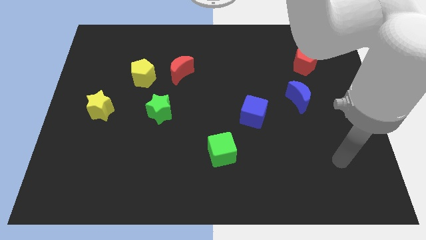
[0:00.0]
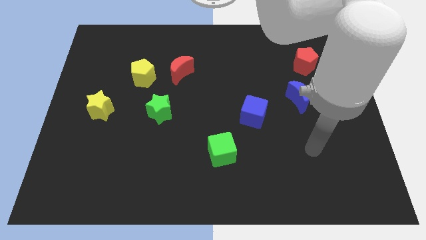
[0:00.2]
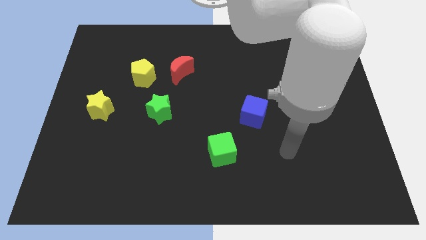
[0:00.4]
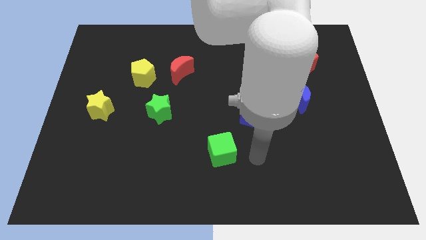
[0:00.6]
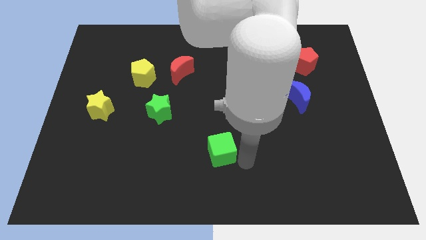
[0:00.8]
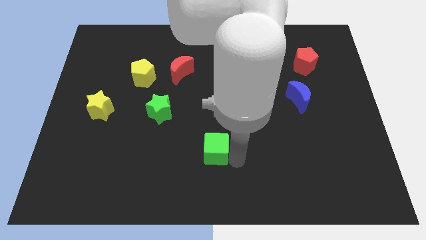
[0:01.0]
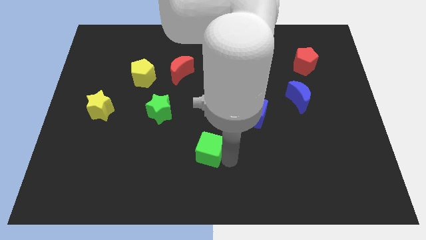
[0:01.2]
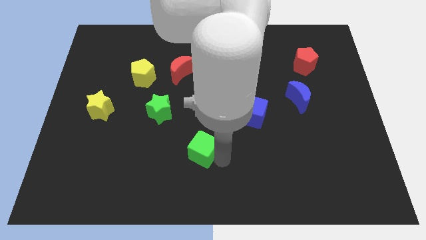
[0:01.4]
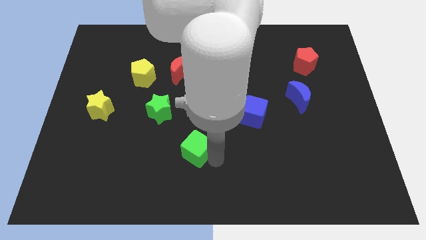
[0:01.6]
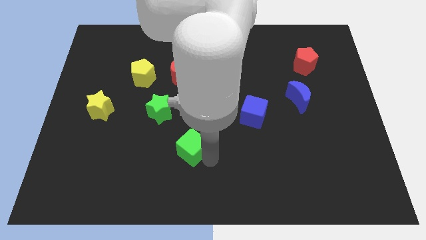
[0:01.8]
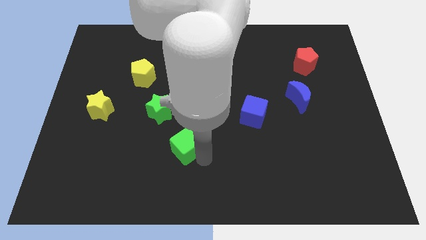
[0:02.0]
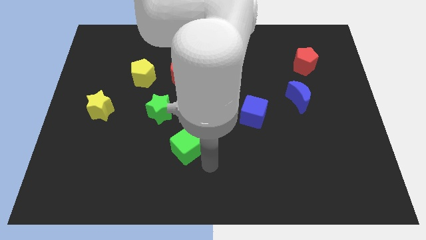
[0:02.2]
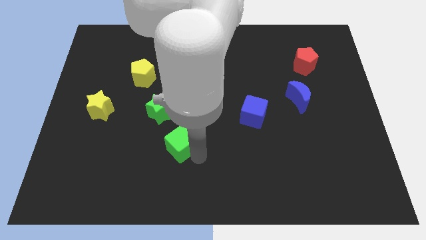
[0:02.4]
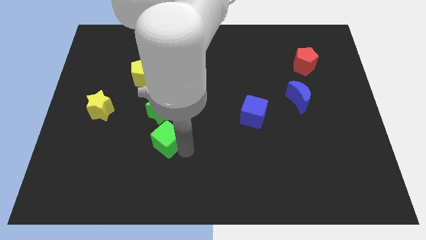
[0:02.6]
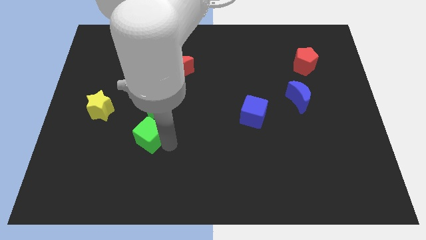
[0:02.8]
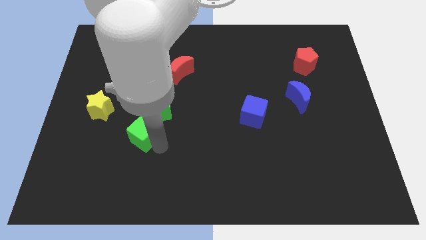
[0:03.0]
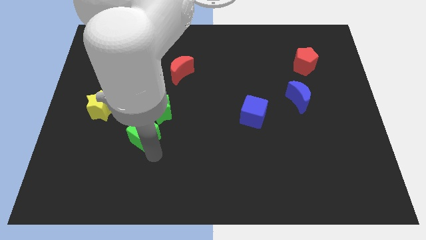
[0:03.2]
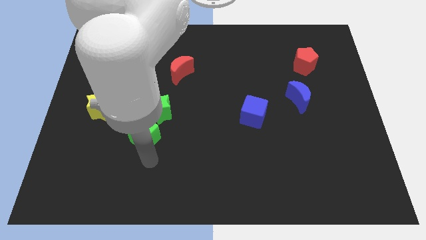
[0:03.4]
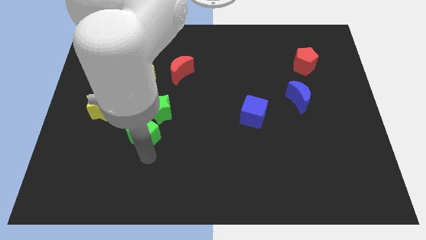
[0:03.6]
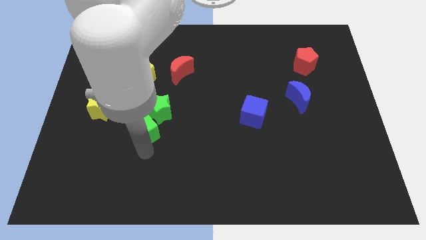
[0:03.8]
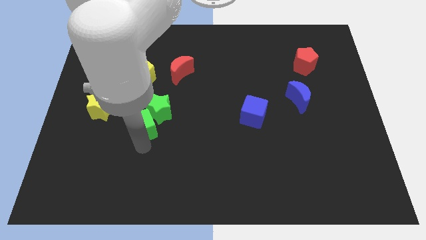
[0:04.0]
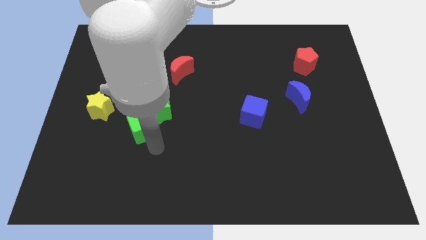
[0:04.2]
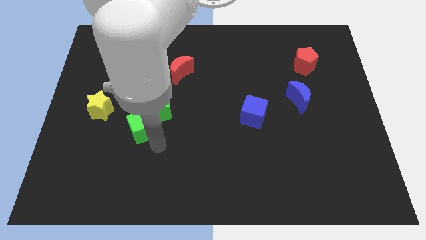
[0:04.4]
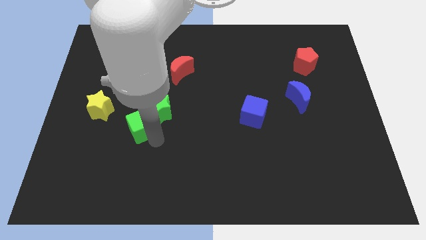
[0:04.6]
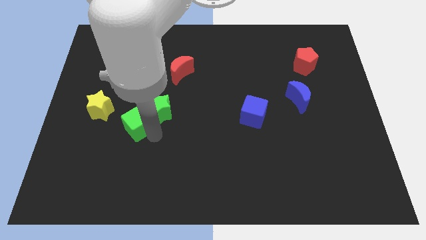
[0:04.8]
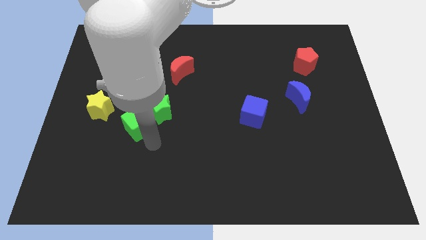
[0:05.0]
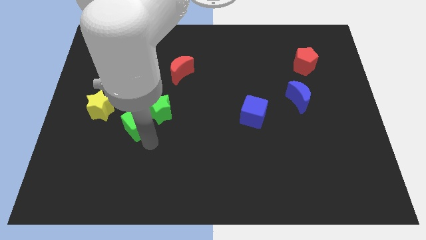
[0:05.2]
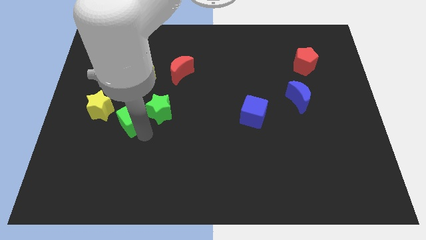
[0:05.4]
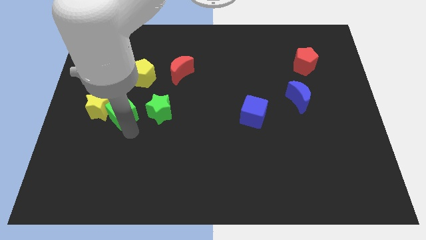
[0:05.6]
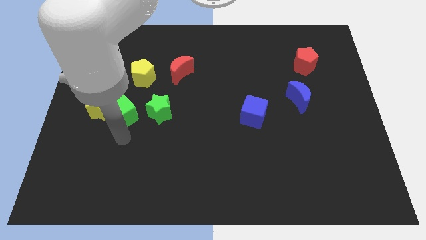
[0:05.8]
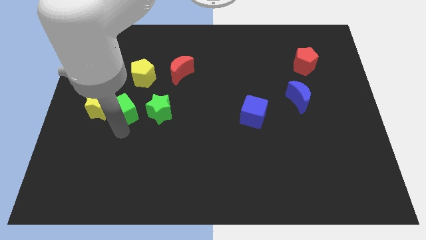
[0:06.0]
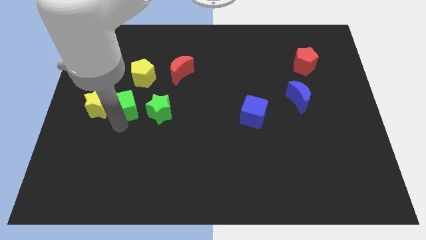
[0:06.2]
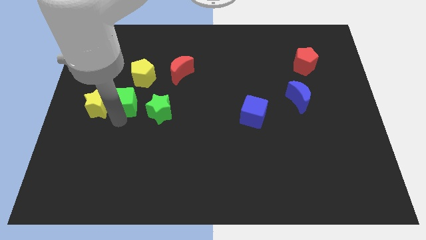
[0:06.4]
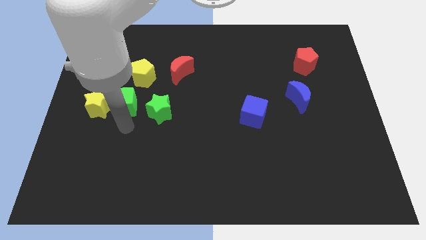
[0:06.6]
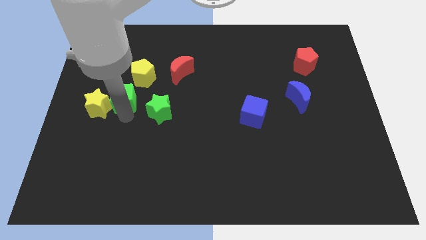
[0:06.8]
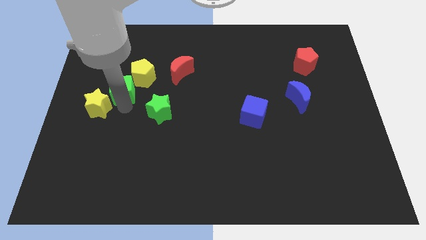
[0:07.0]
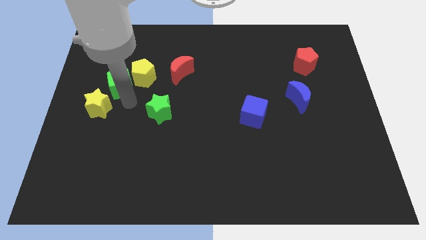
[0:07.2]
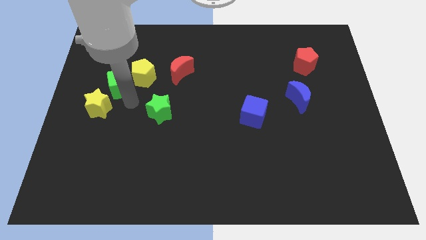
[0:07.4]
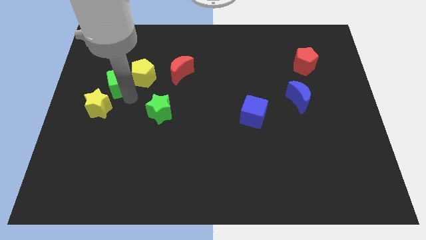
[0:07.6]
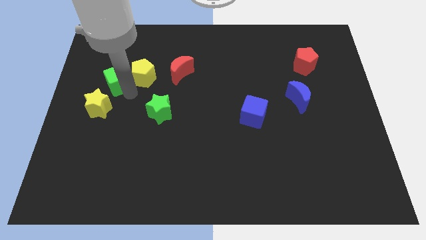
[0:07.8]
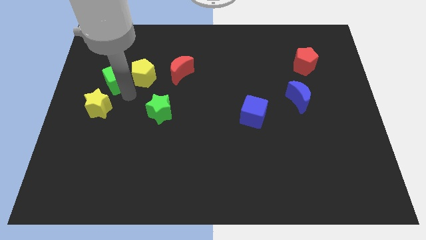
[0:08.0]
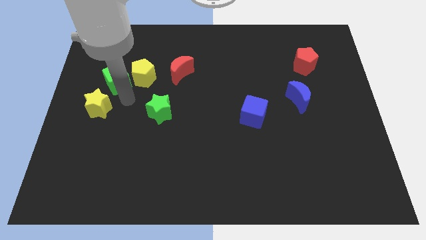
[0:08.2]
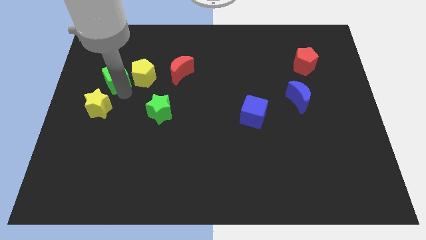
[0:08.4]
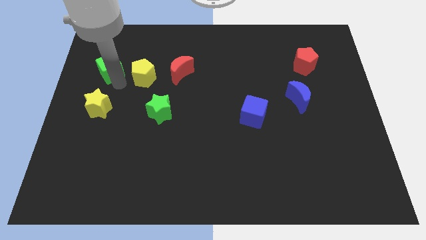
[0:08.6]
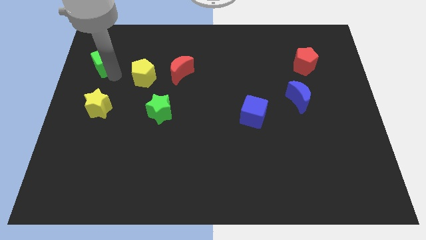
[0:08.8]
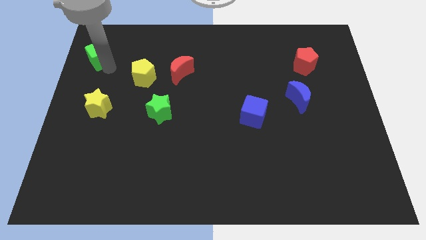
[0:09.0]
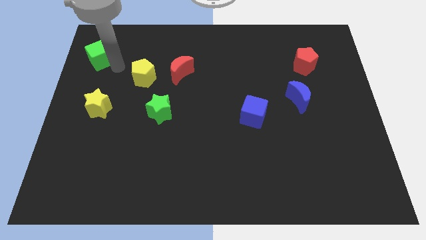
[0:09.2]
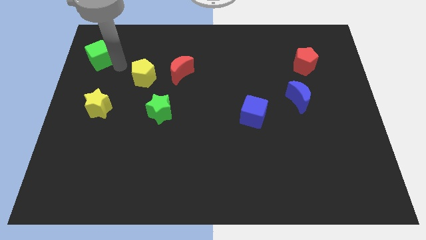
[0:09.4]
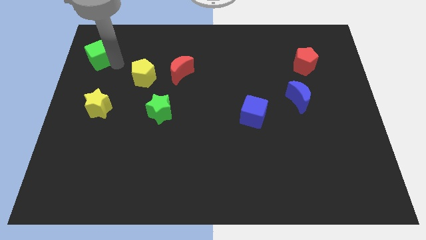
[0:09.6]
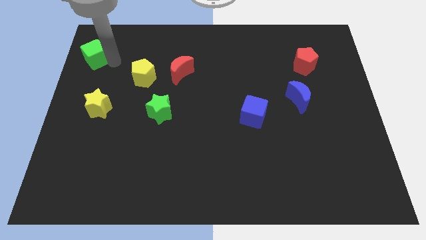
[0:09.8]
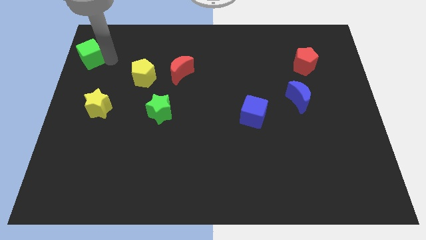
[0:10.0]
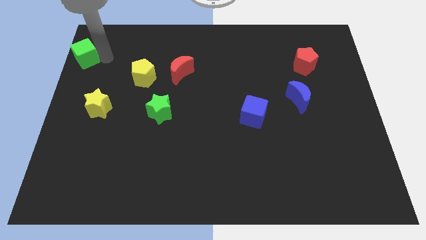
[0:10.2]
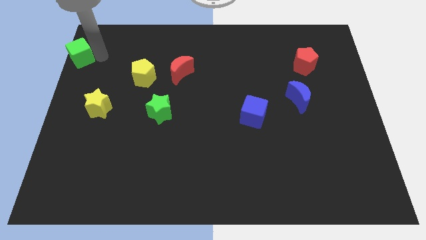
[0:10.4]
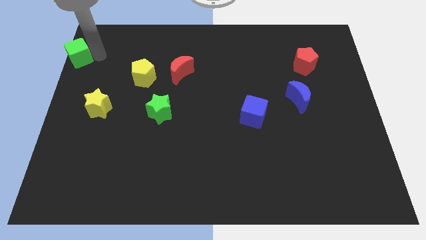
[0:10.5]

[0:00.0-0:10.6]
slide the green cube to the top left corner
